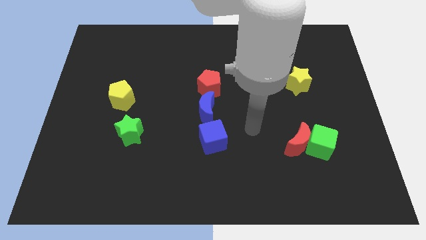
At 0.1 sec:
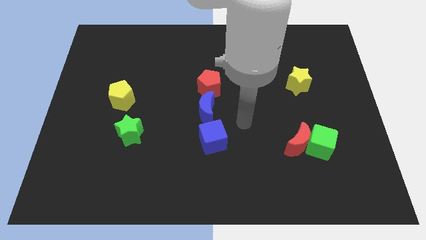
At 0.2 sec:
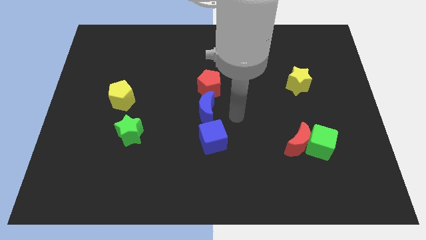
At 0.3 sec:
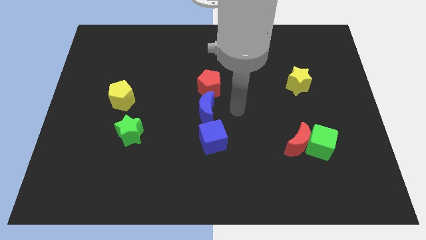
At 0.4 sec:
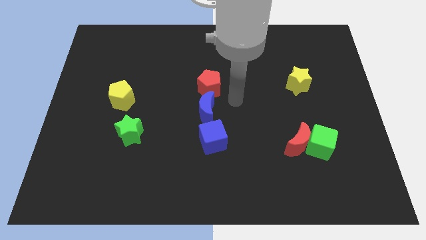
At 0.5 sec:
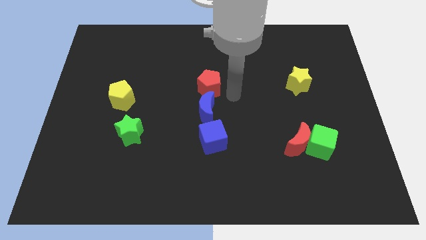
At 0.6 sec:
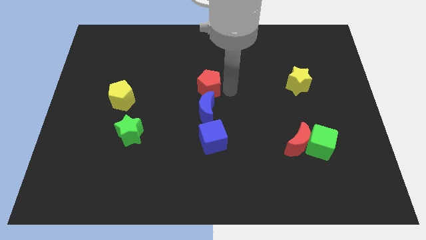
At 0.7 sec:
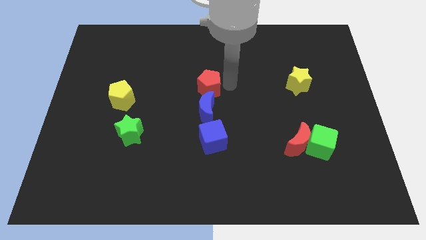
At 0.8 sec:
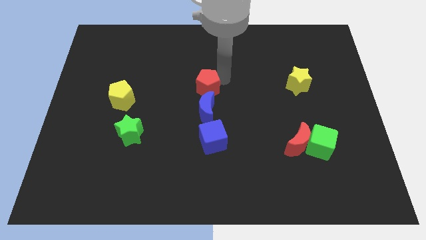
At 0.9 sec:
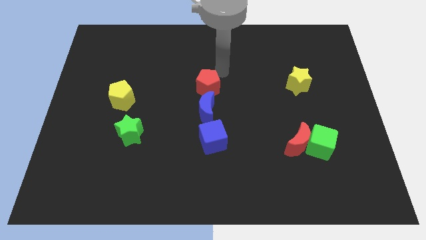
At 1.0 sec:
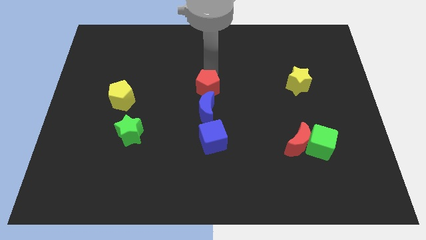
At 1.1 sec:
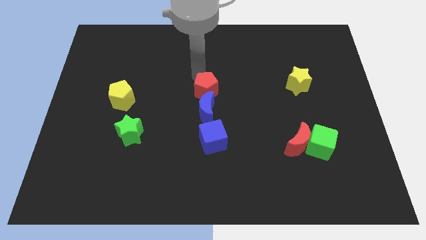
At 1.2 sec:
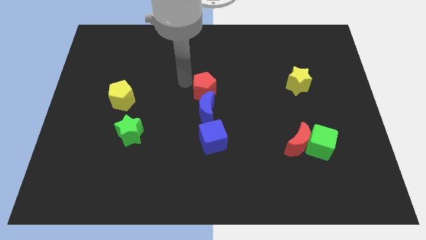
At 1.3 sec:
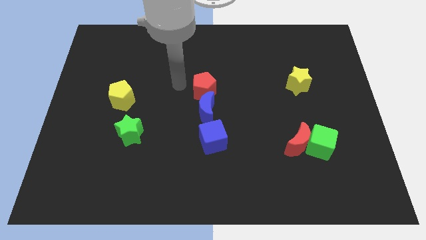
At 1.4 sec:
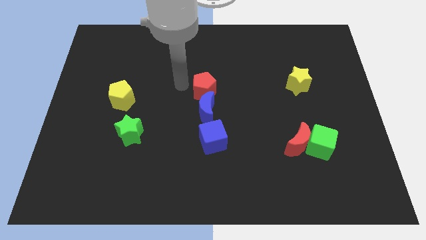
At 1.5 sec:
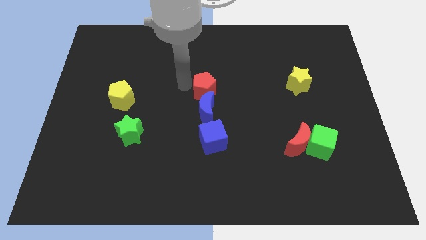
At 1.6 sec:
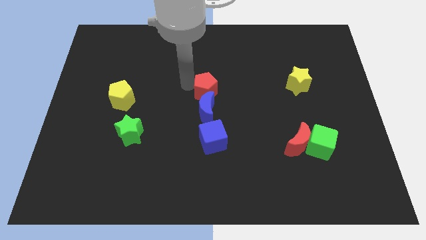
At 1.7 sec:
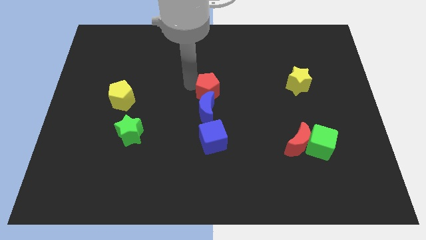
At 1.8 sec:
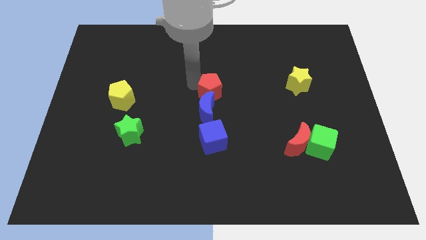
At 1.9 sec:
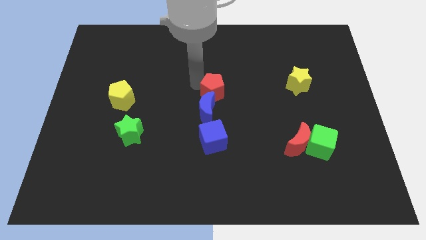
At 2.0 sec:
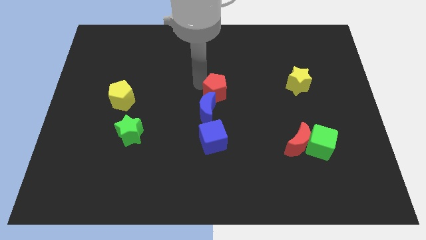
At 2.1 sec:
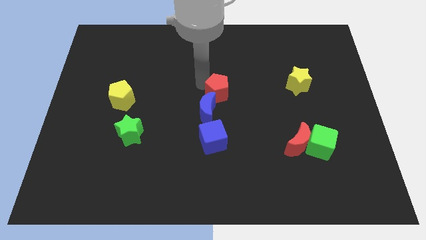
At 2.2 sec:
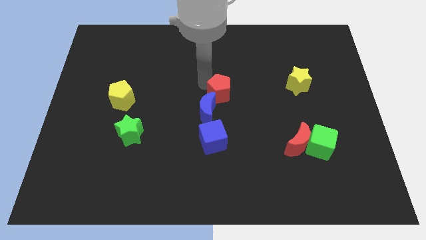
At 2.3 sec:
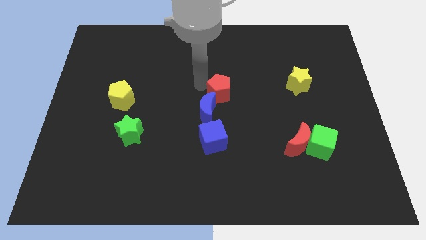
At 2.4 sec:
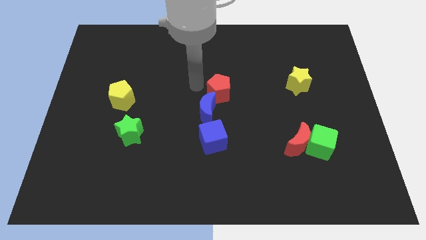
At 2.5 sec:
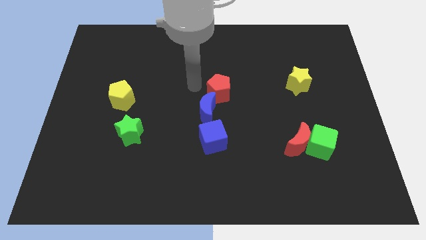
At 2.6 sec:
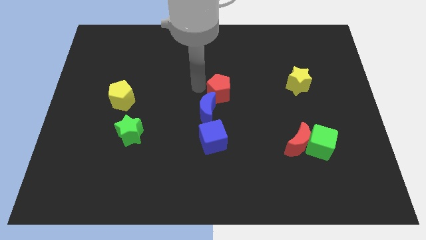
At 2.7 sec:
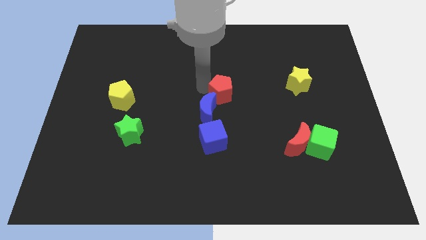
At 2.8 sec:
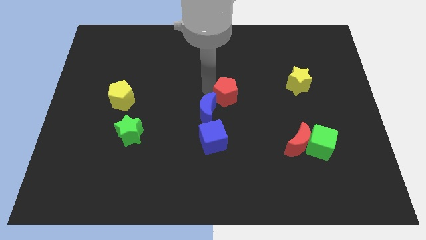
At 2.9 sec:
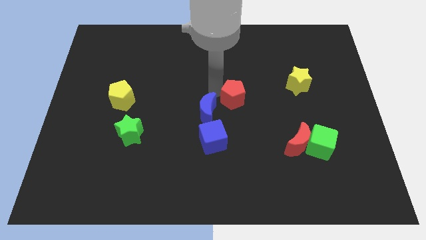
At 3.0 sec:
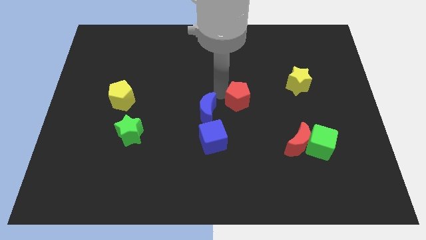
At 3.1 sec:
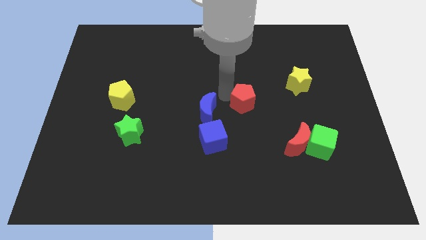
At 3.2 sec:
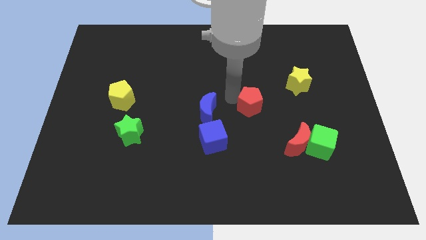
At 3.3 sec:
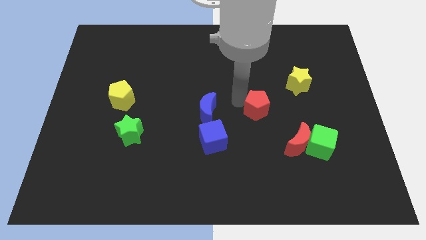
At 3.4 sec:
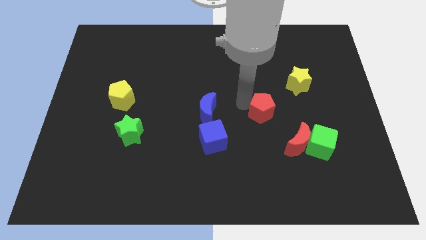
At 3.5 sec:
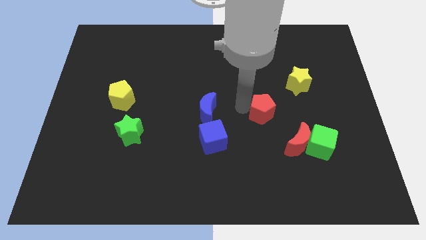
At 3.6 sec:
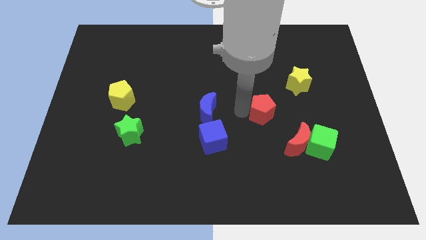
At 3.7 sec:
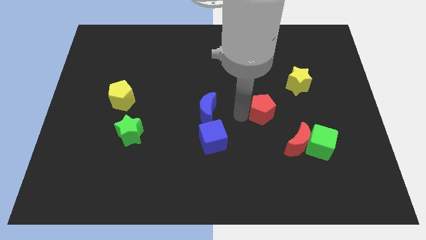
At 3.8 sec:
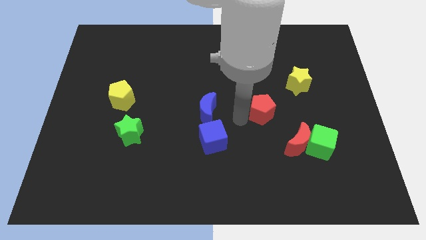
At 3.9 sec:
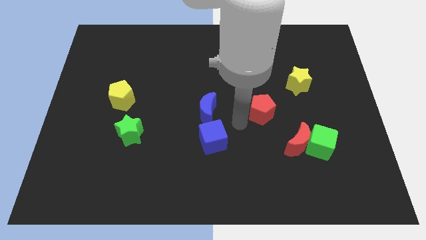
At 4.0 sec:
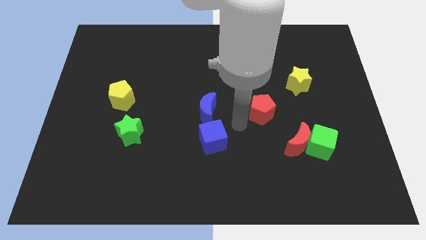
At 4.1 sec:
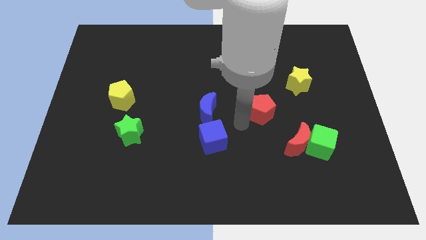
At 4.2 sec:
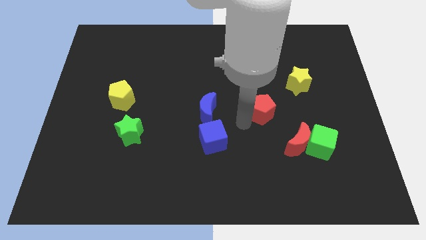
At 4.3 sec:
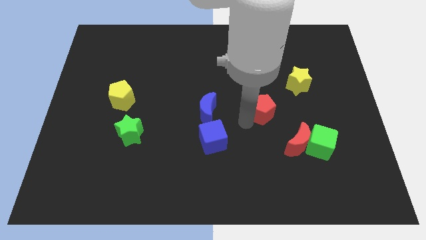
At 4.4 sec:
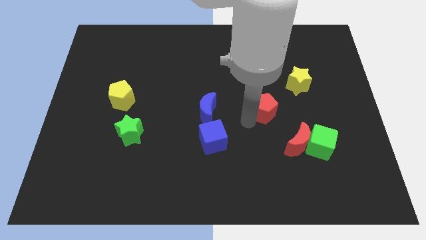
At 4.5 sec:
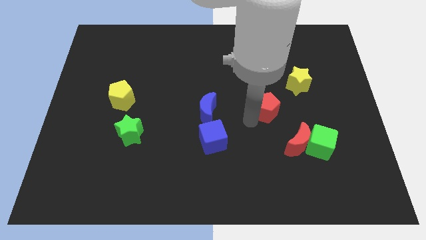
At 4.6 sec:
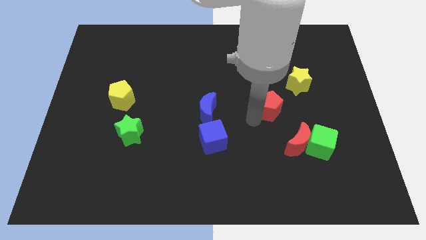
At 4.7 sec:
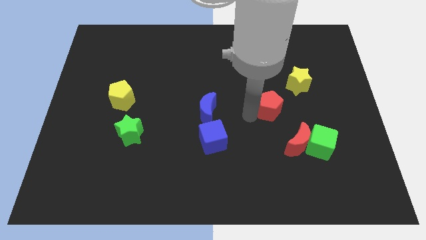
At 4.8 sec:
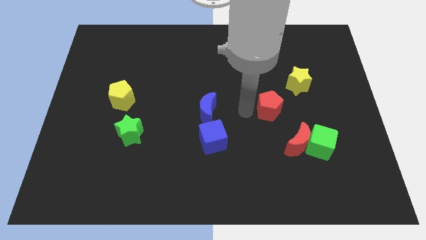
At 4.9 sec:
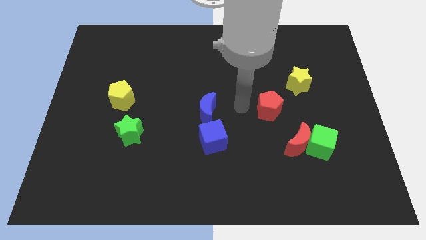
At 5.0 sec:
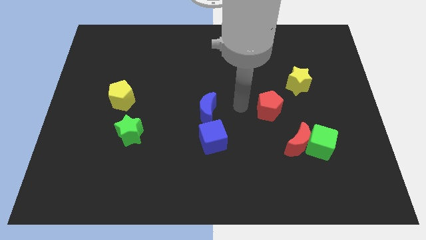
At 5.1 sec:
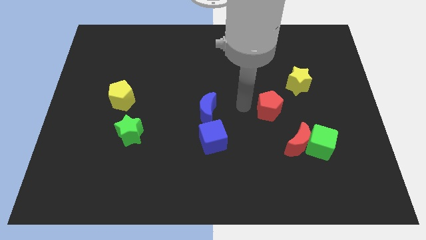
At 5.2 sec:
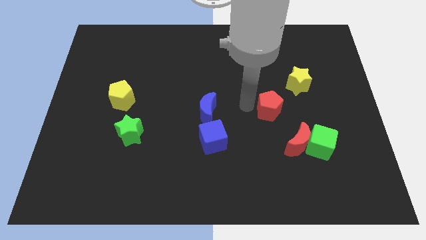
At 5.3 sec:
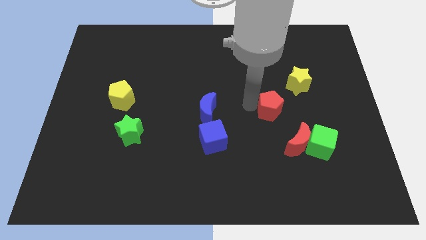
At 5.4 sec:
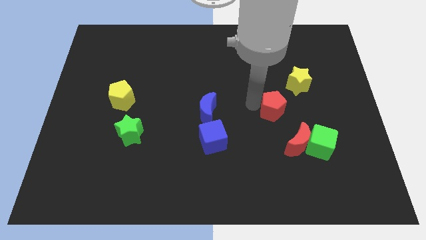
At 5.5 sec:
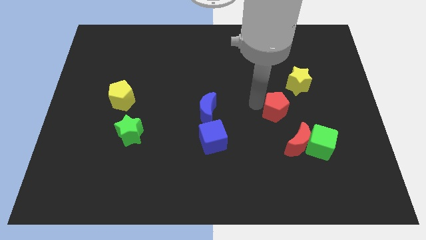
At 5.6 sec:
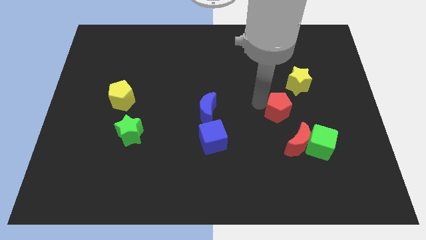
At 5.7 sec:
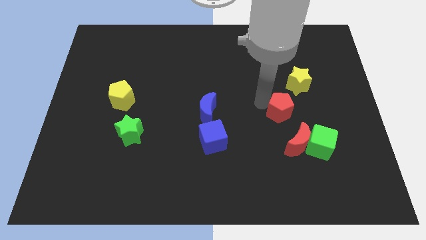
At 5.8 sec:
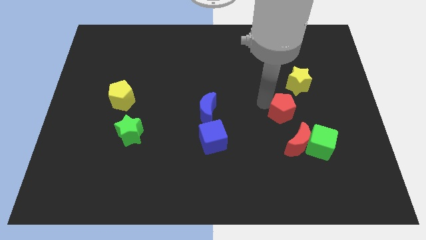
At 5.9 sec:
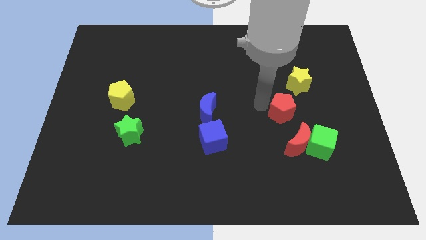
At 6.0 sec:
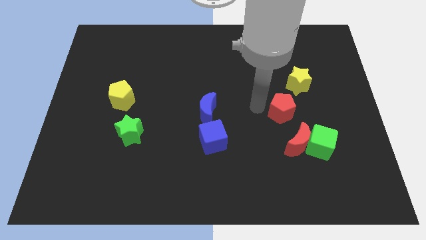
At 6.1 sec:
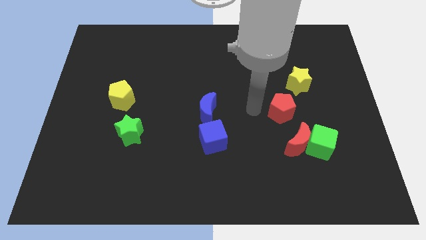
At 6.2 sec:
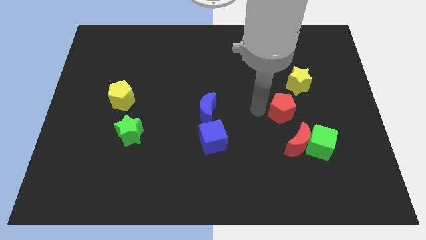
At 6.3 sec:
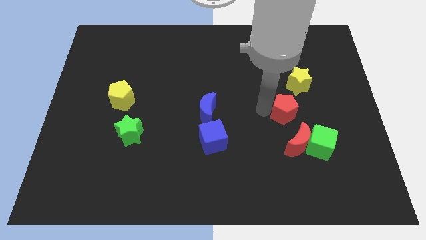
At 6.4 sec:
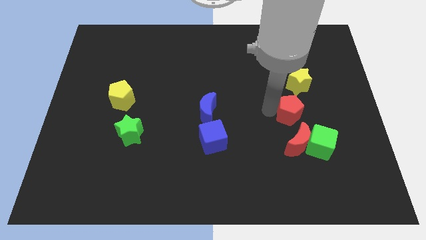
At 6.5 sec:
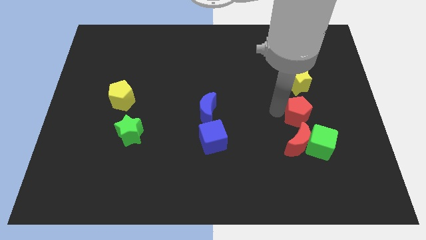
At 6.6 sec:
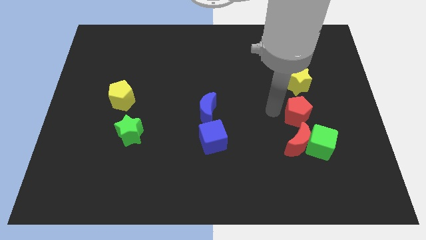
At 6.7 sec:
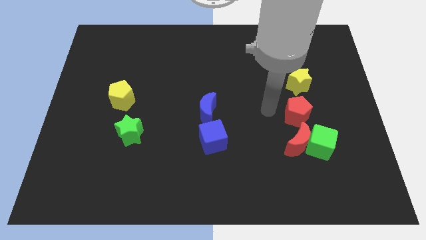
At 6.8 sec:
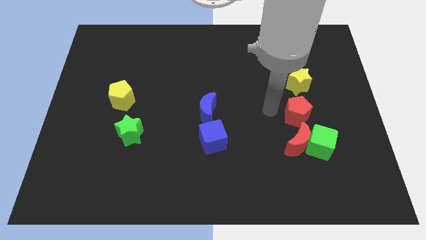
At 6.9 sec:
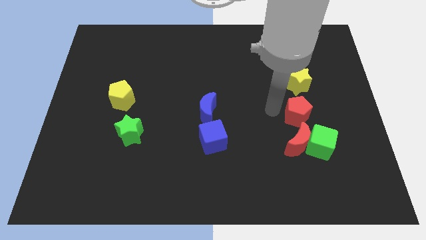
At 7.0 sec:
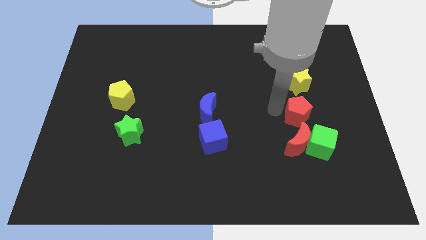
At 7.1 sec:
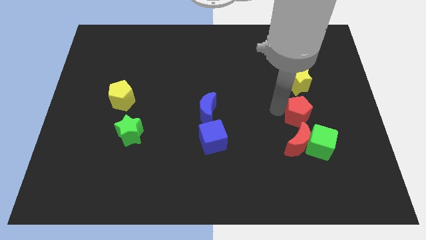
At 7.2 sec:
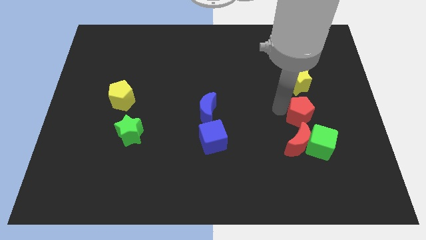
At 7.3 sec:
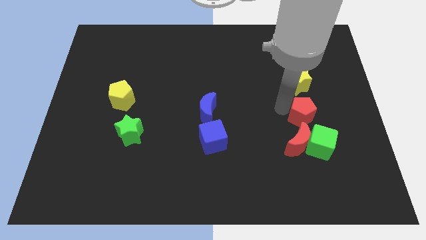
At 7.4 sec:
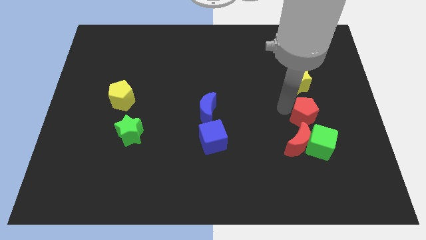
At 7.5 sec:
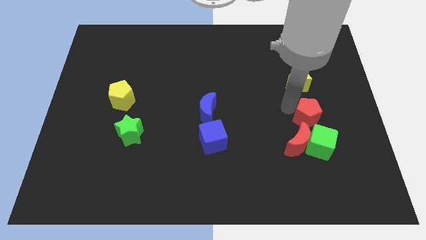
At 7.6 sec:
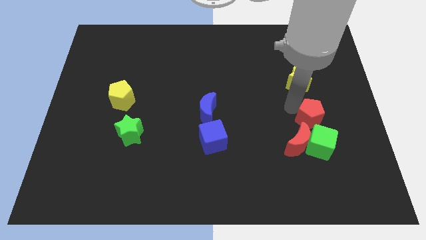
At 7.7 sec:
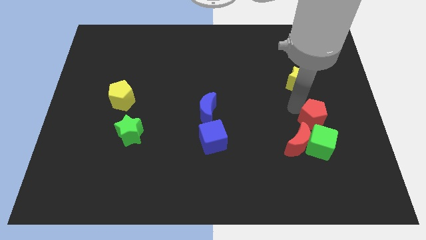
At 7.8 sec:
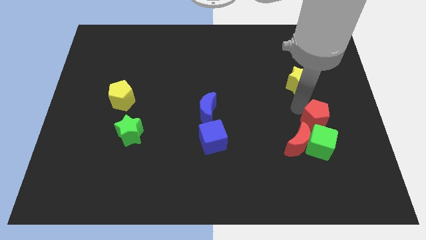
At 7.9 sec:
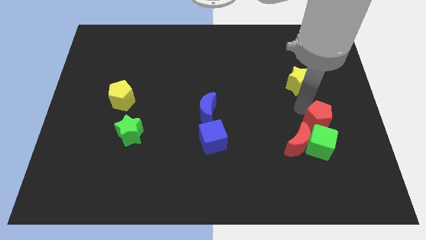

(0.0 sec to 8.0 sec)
move the red pentagon to the top right side of the green cube

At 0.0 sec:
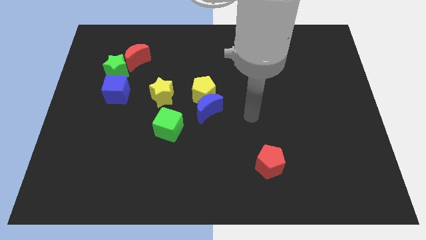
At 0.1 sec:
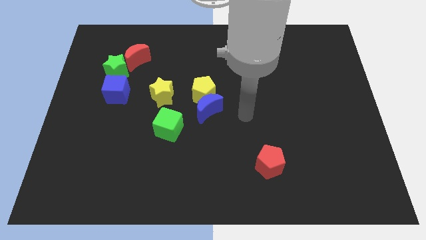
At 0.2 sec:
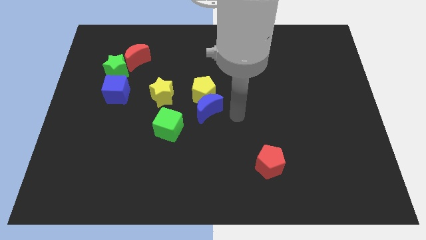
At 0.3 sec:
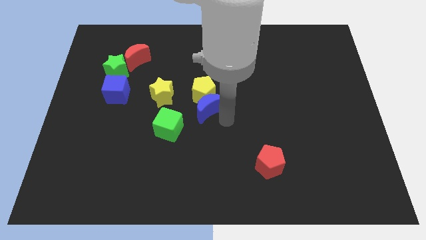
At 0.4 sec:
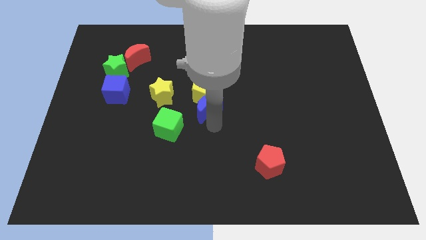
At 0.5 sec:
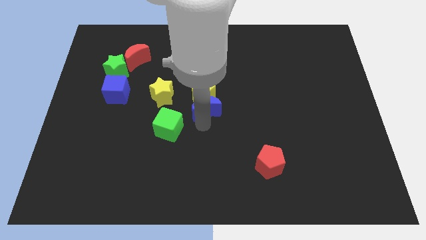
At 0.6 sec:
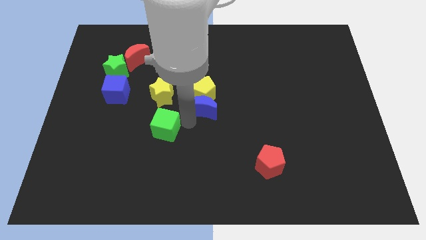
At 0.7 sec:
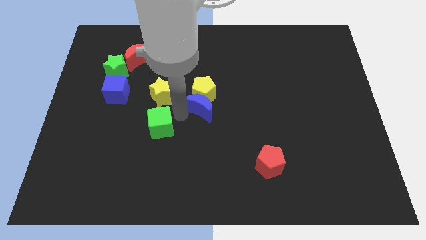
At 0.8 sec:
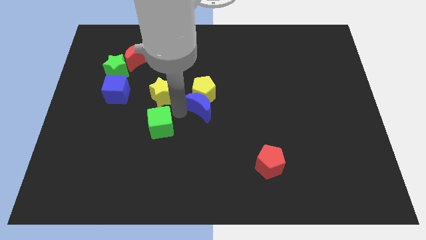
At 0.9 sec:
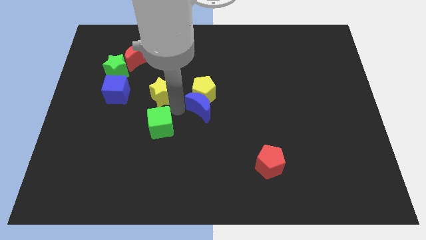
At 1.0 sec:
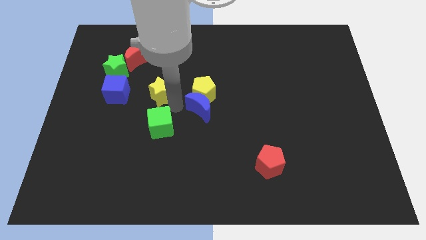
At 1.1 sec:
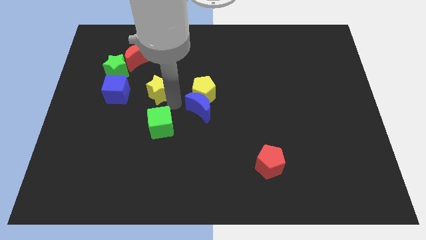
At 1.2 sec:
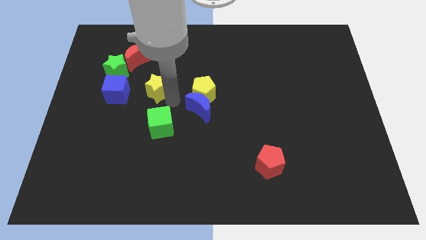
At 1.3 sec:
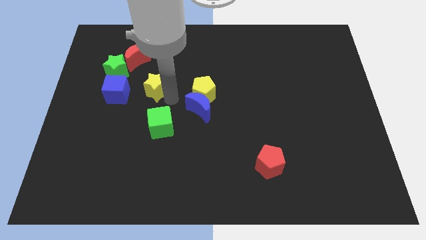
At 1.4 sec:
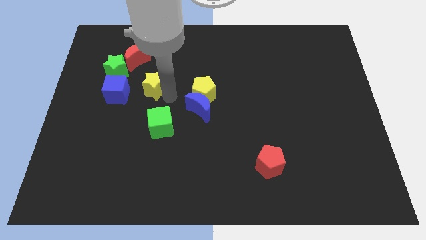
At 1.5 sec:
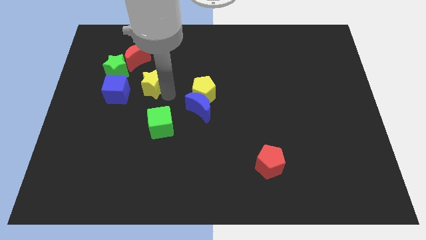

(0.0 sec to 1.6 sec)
move the yellow star diagonally up and to the right of the blue cube
